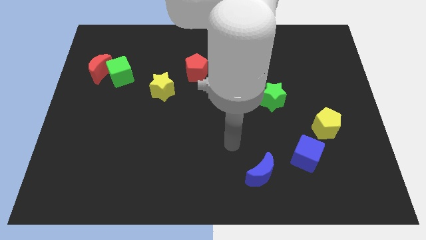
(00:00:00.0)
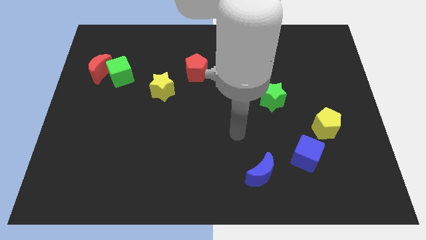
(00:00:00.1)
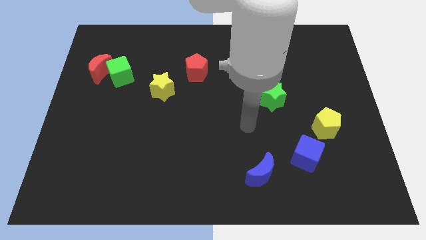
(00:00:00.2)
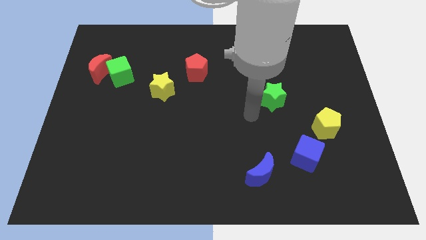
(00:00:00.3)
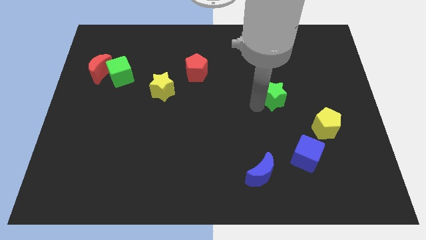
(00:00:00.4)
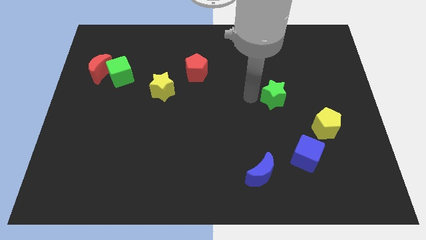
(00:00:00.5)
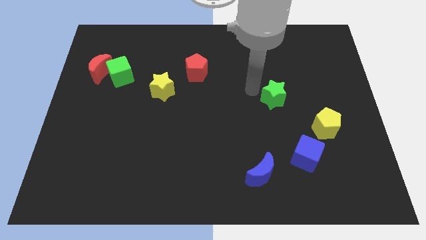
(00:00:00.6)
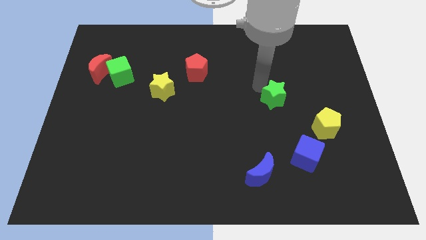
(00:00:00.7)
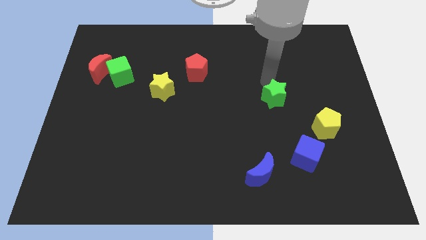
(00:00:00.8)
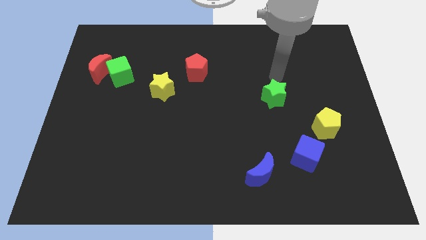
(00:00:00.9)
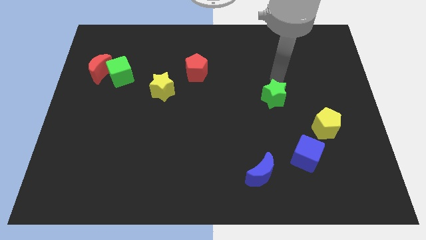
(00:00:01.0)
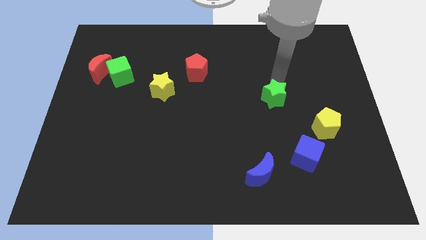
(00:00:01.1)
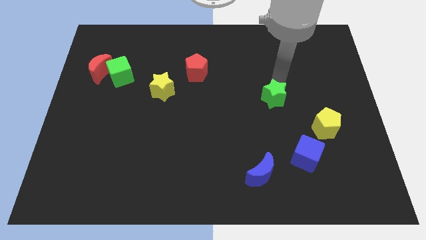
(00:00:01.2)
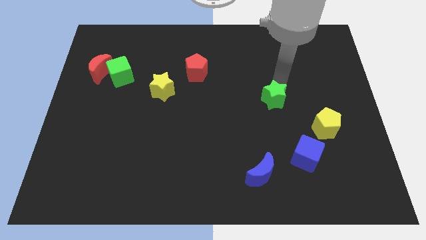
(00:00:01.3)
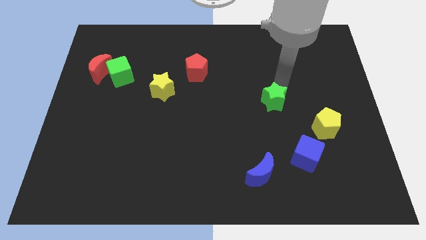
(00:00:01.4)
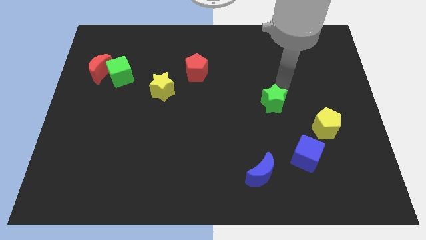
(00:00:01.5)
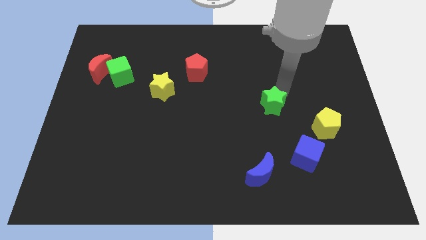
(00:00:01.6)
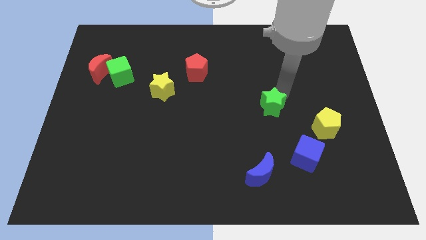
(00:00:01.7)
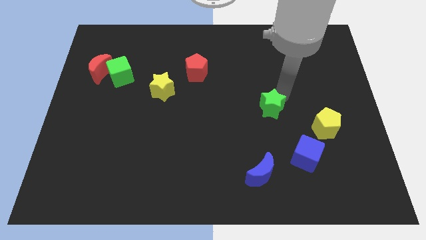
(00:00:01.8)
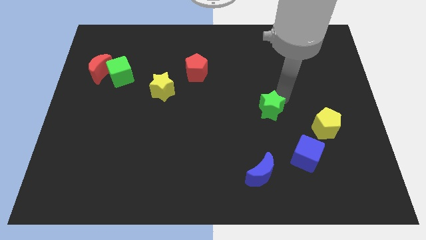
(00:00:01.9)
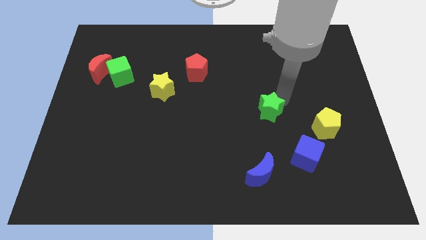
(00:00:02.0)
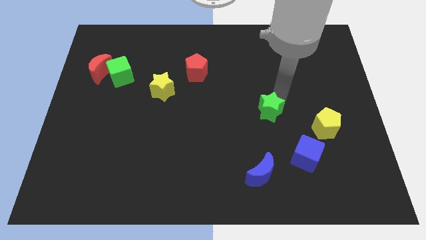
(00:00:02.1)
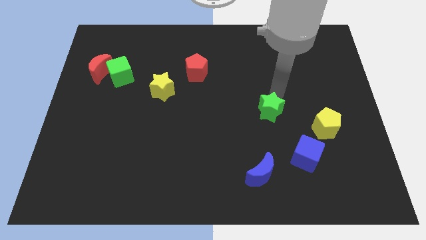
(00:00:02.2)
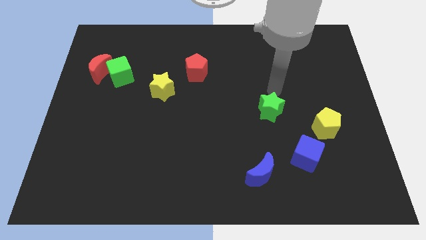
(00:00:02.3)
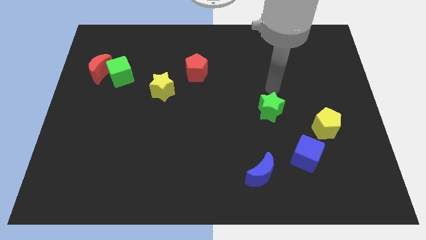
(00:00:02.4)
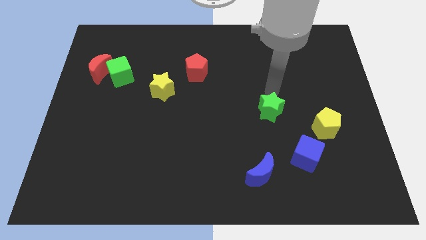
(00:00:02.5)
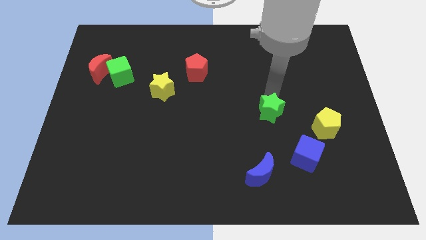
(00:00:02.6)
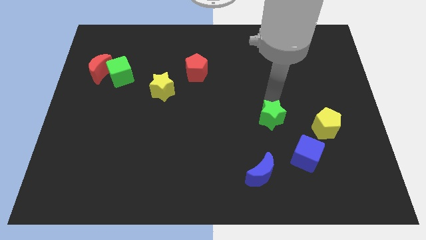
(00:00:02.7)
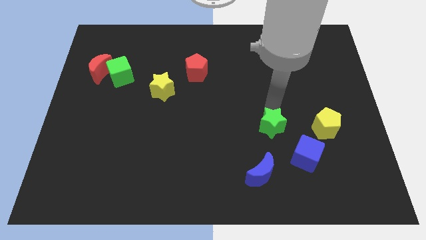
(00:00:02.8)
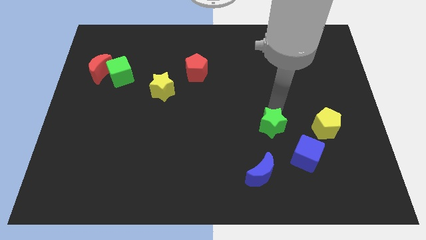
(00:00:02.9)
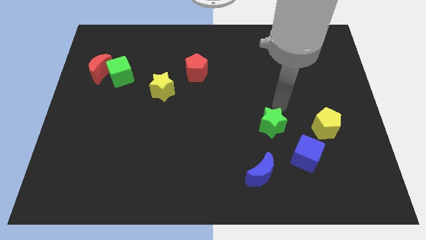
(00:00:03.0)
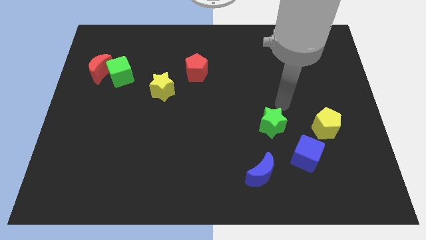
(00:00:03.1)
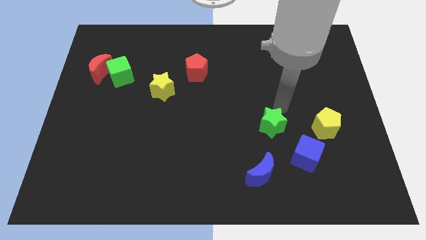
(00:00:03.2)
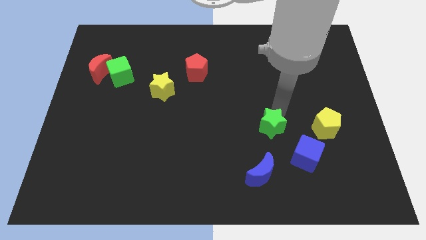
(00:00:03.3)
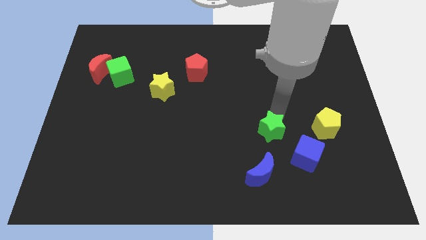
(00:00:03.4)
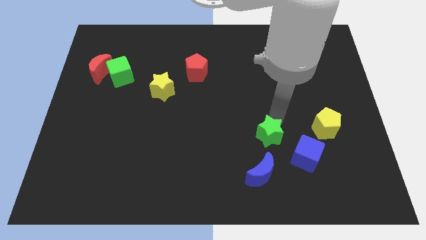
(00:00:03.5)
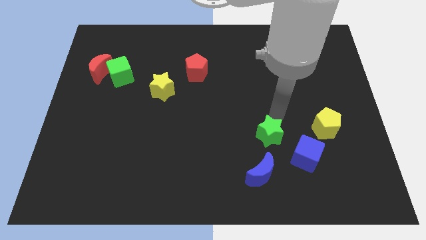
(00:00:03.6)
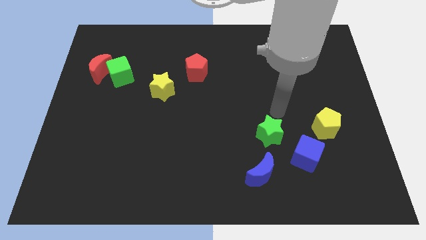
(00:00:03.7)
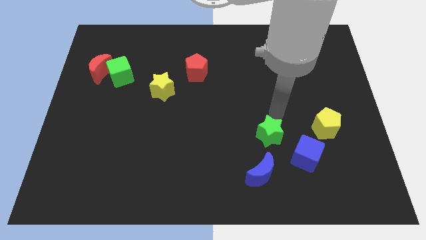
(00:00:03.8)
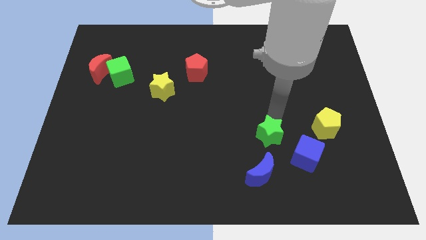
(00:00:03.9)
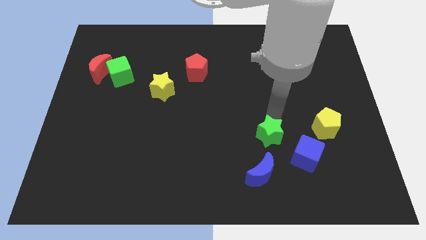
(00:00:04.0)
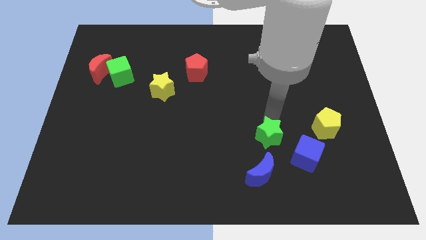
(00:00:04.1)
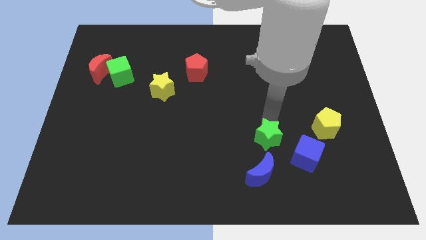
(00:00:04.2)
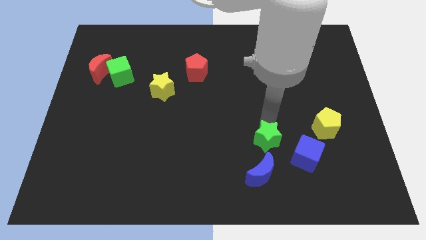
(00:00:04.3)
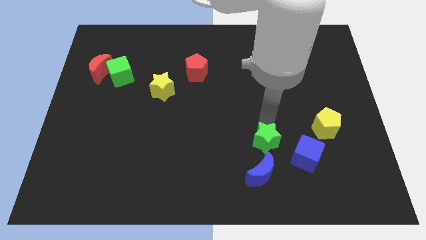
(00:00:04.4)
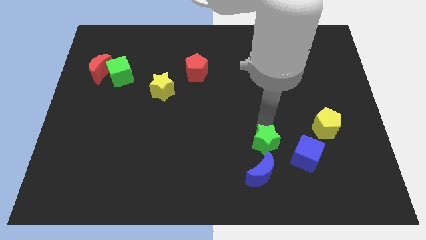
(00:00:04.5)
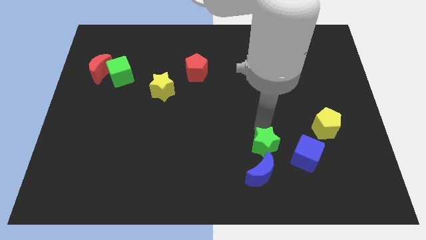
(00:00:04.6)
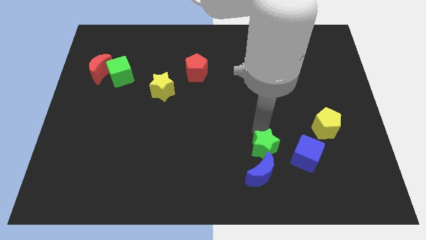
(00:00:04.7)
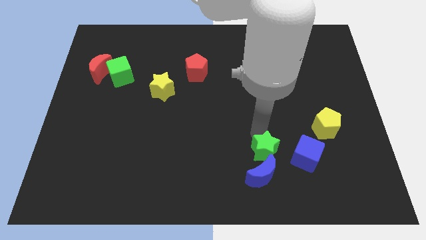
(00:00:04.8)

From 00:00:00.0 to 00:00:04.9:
slide the green star close to the blue moon

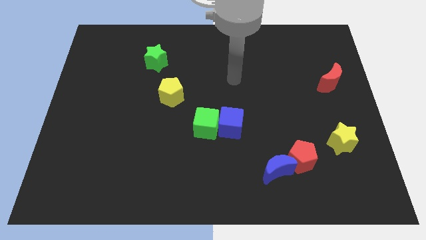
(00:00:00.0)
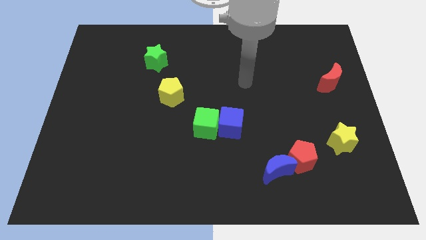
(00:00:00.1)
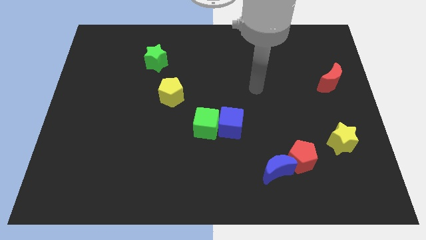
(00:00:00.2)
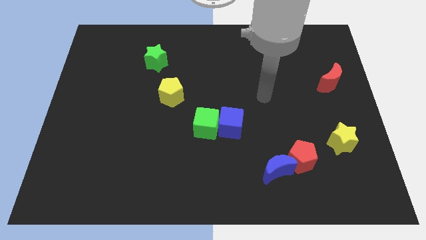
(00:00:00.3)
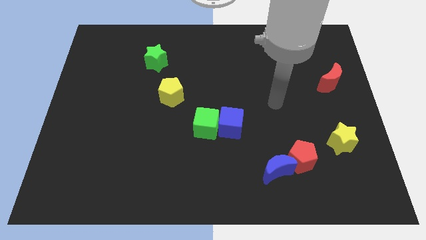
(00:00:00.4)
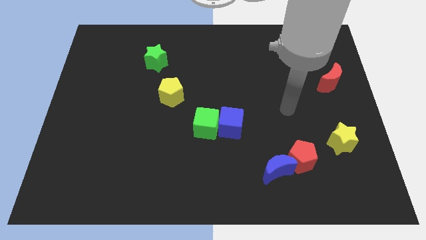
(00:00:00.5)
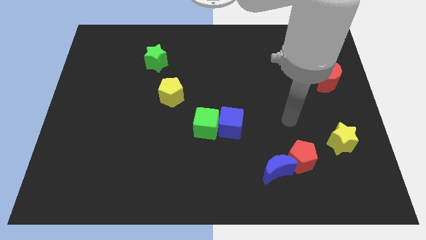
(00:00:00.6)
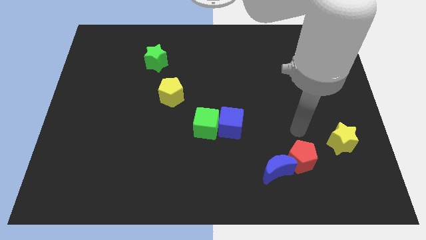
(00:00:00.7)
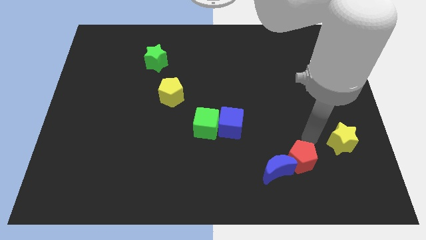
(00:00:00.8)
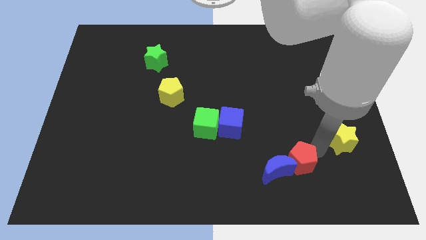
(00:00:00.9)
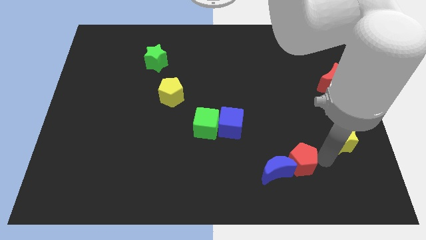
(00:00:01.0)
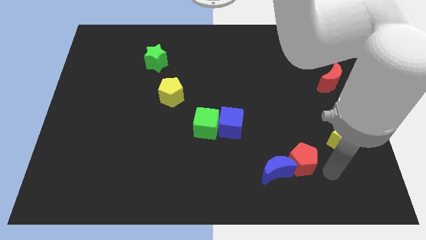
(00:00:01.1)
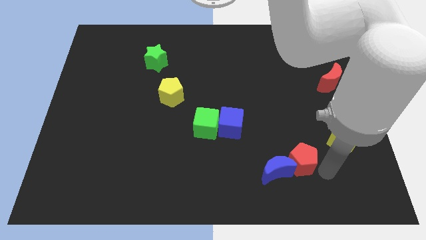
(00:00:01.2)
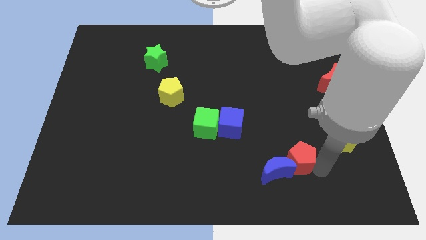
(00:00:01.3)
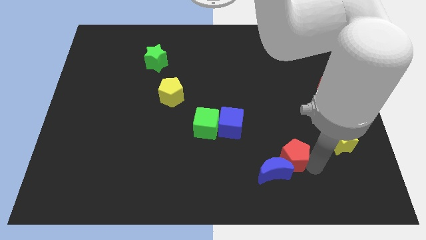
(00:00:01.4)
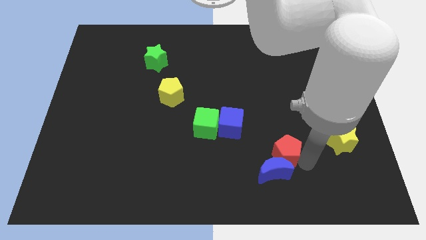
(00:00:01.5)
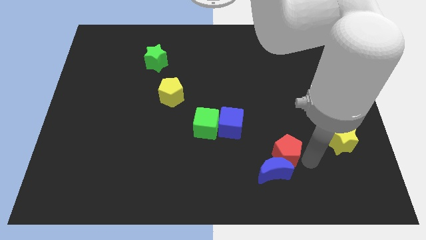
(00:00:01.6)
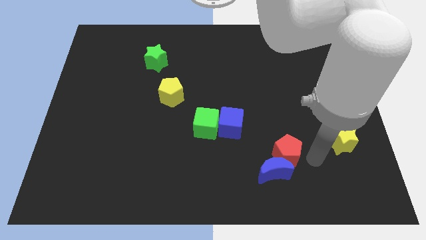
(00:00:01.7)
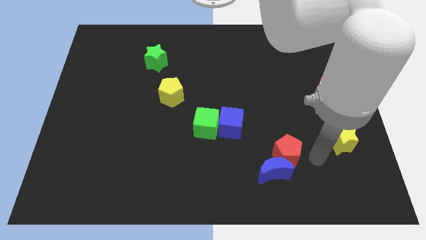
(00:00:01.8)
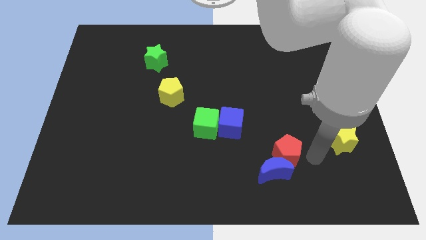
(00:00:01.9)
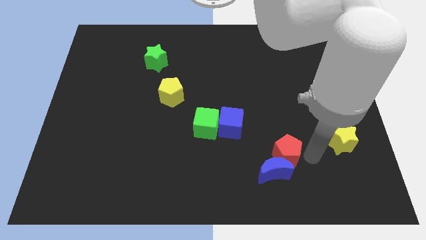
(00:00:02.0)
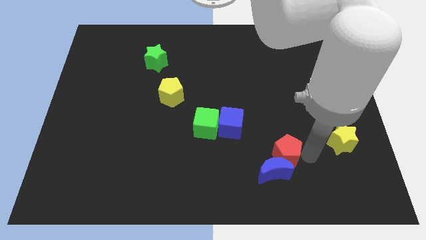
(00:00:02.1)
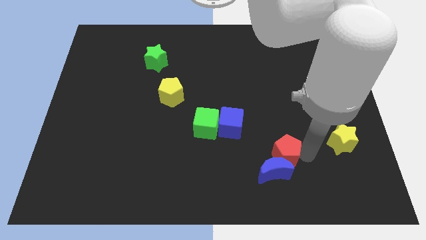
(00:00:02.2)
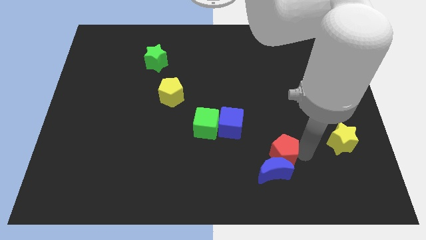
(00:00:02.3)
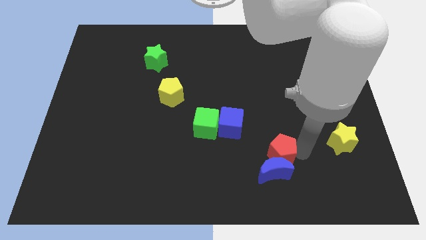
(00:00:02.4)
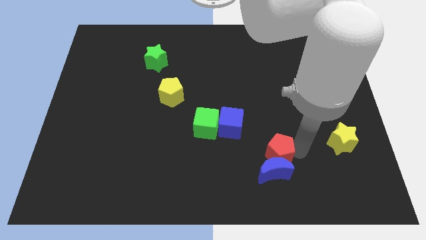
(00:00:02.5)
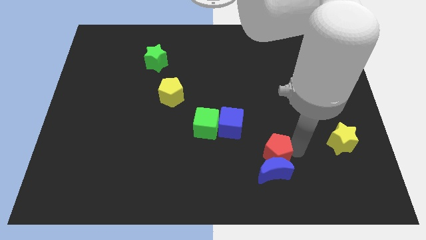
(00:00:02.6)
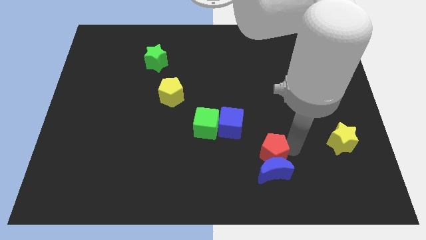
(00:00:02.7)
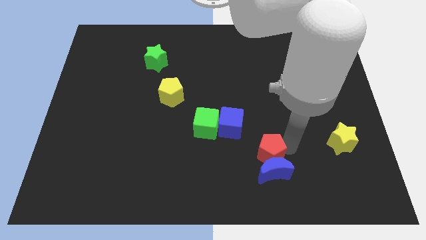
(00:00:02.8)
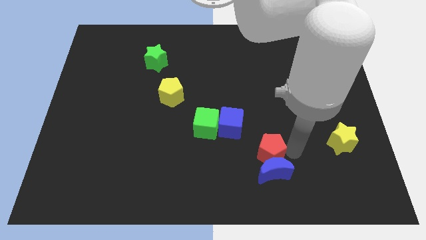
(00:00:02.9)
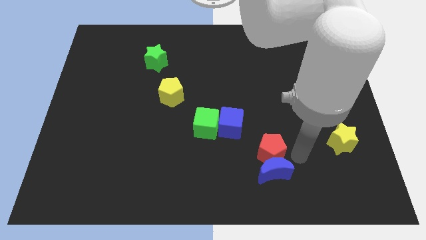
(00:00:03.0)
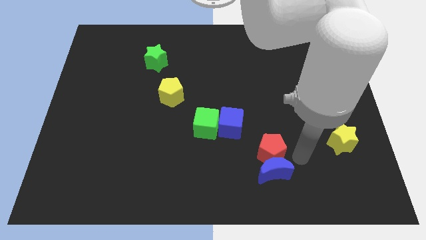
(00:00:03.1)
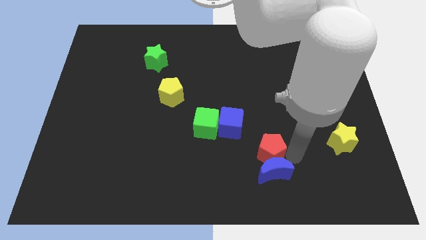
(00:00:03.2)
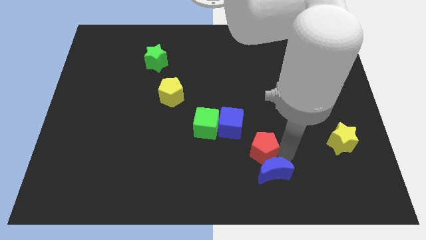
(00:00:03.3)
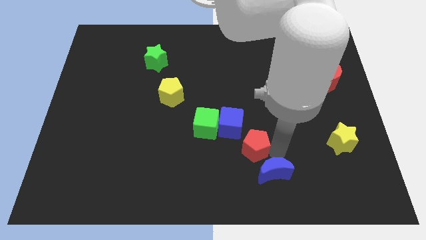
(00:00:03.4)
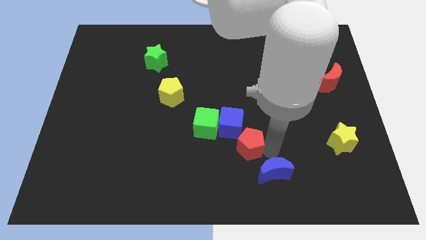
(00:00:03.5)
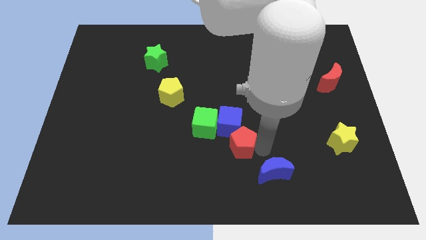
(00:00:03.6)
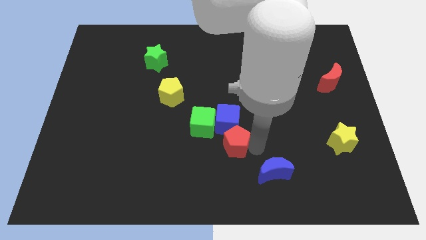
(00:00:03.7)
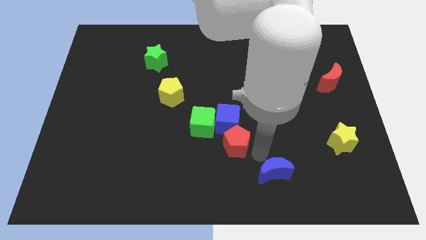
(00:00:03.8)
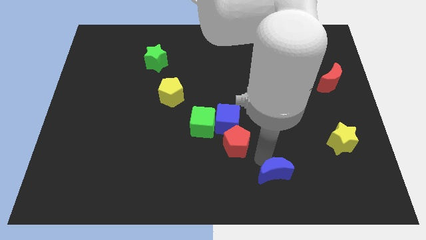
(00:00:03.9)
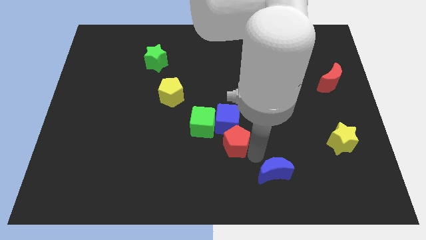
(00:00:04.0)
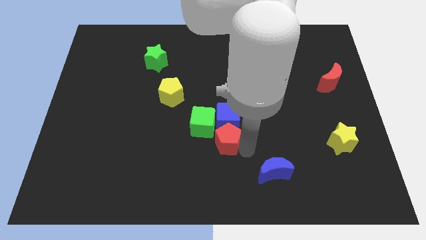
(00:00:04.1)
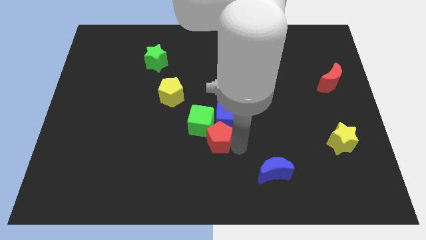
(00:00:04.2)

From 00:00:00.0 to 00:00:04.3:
push the red pentagon towards the green cube
